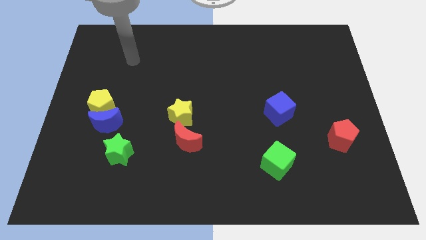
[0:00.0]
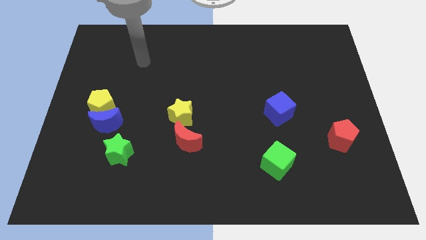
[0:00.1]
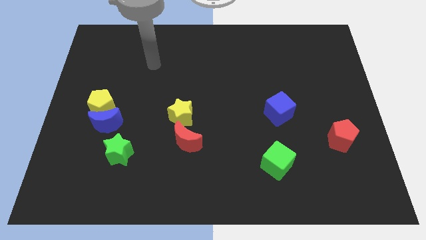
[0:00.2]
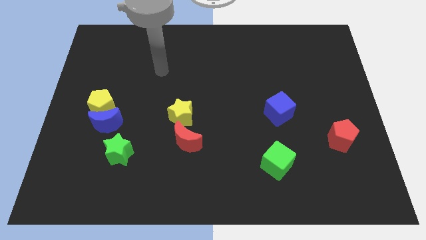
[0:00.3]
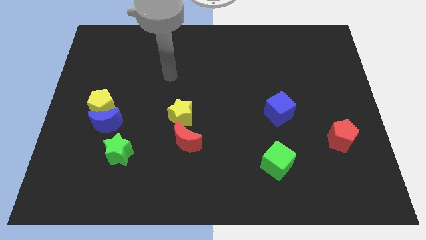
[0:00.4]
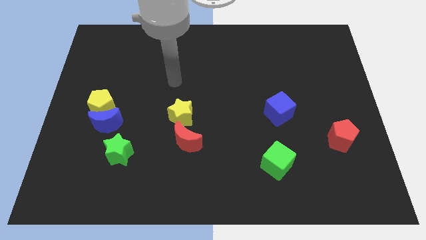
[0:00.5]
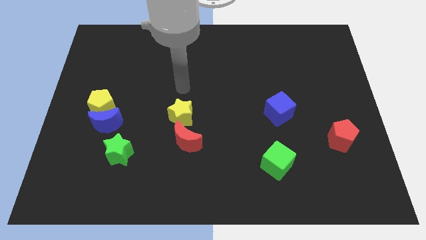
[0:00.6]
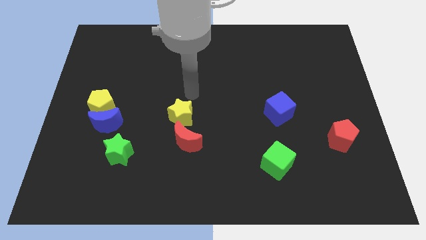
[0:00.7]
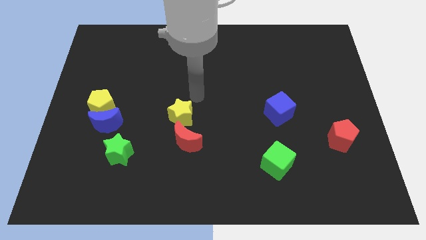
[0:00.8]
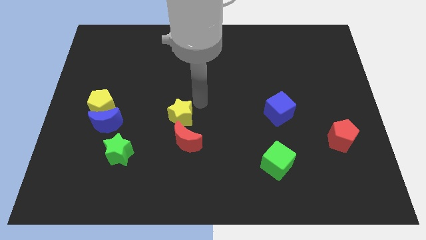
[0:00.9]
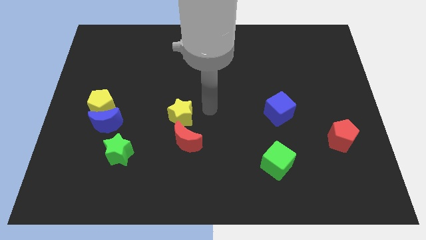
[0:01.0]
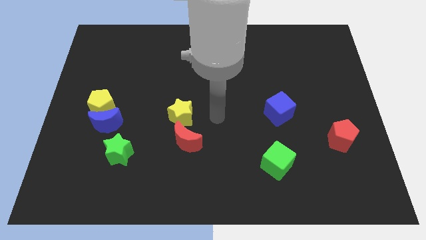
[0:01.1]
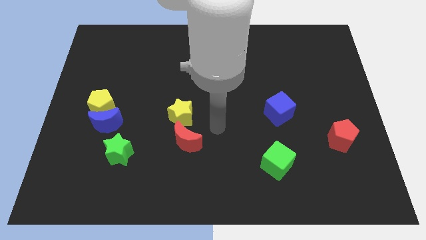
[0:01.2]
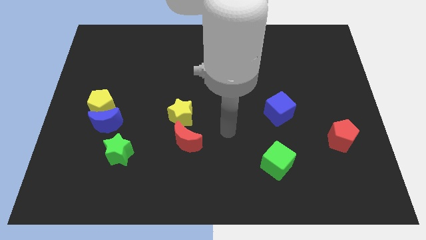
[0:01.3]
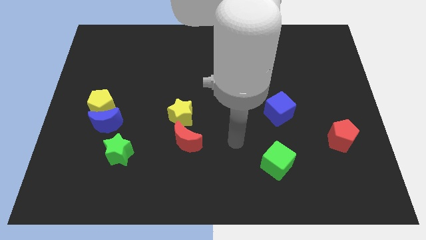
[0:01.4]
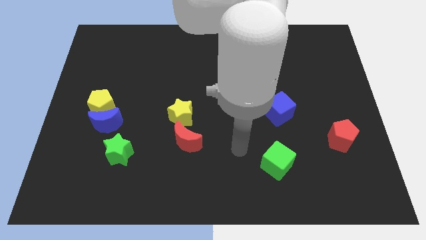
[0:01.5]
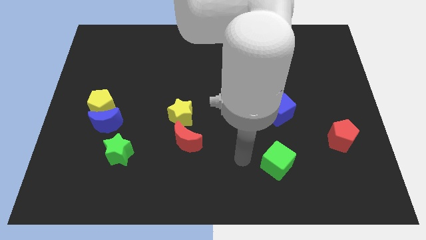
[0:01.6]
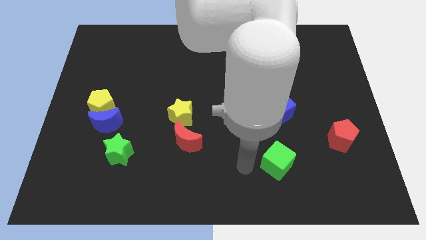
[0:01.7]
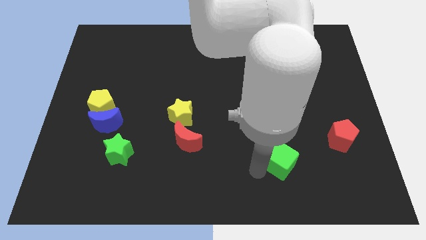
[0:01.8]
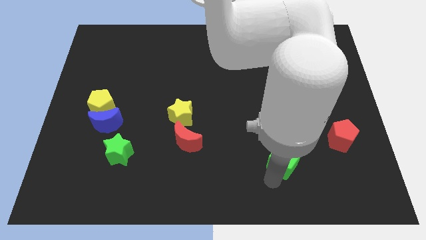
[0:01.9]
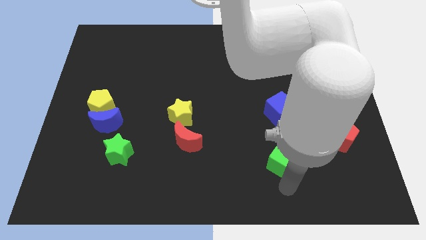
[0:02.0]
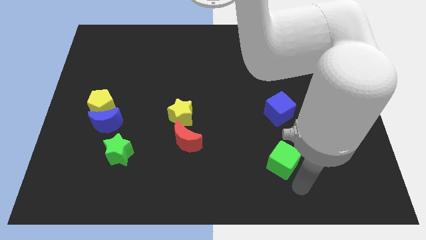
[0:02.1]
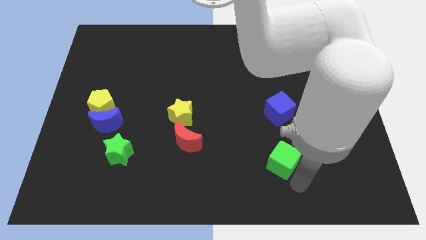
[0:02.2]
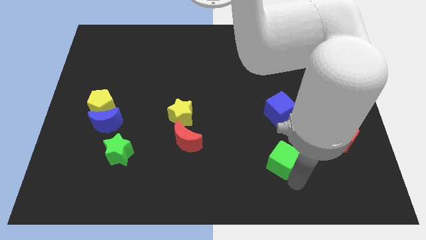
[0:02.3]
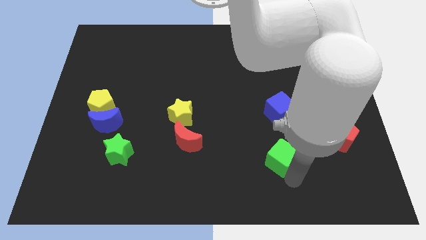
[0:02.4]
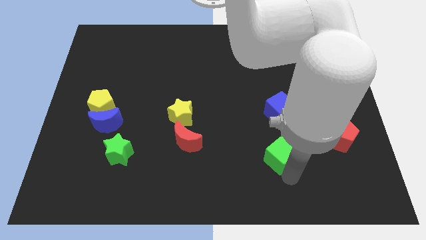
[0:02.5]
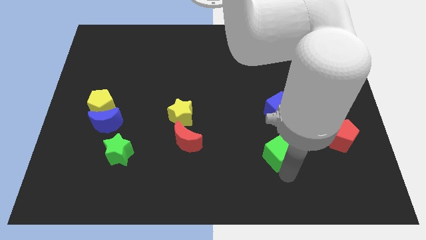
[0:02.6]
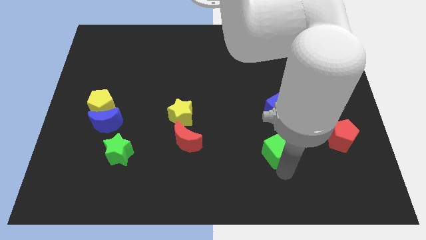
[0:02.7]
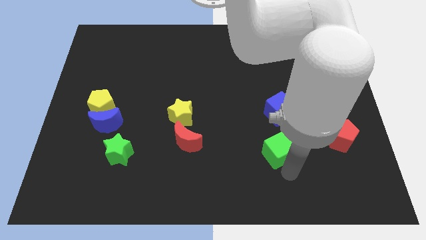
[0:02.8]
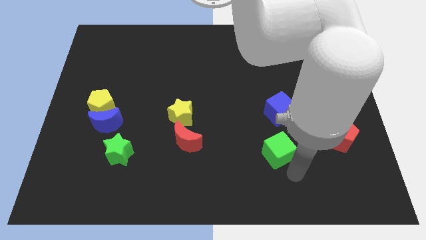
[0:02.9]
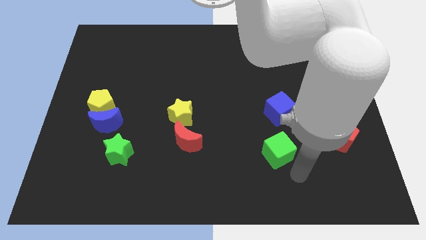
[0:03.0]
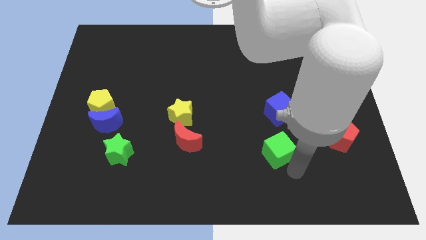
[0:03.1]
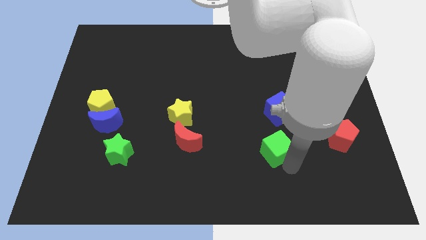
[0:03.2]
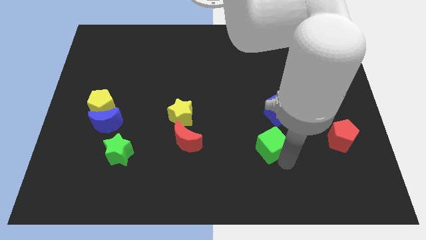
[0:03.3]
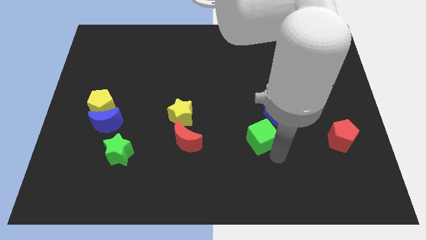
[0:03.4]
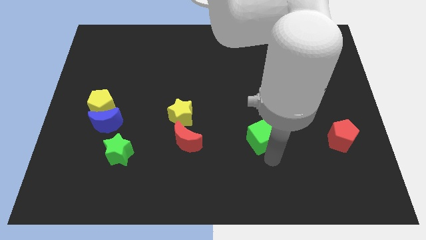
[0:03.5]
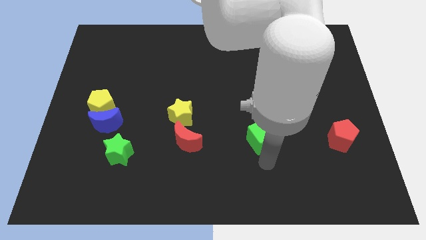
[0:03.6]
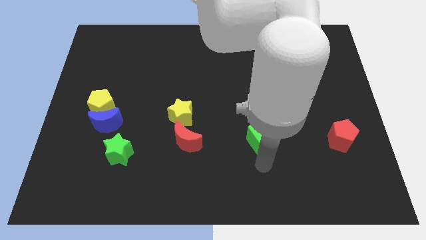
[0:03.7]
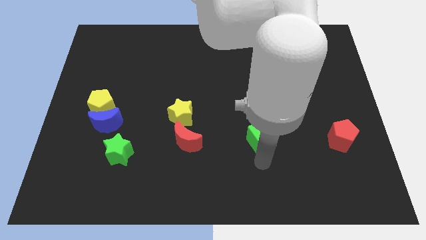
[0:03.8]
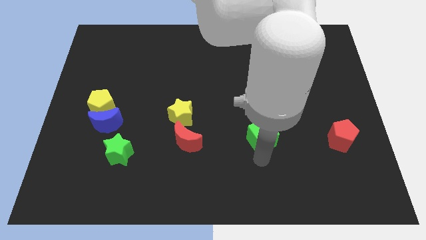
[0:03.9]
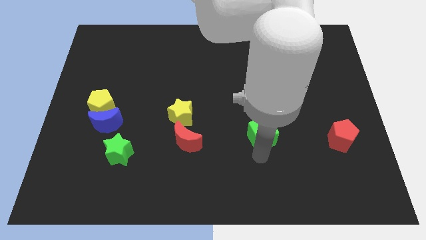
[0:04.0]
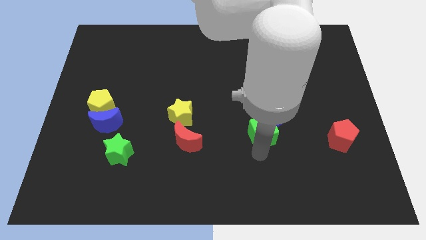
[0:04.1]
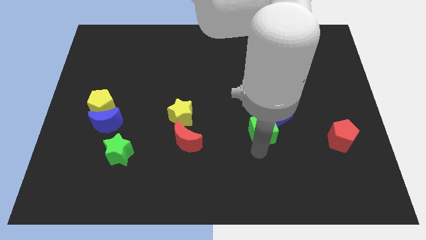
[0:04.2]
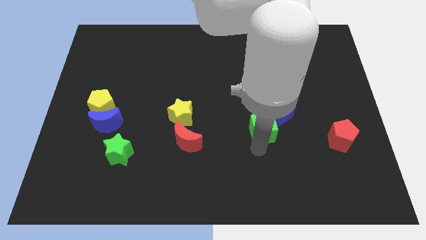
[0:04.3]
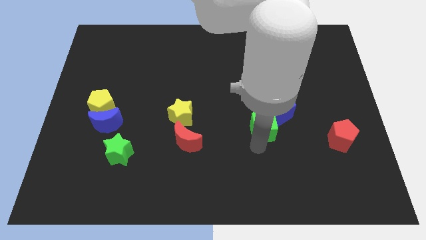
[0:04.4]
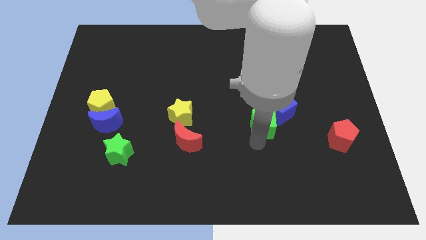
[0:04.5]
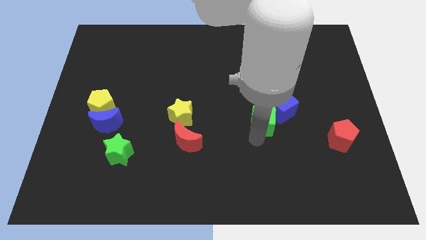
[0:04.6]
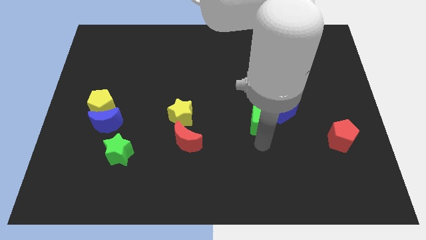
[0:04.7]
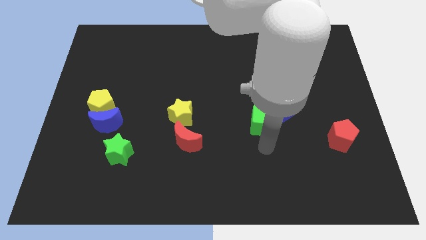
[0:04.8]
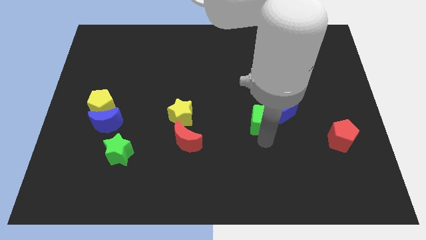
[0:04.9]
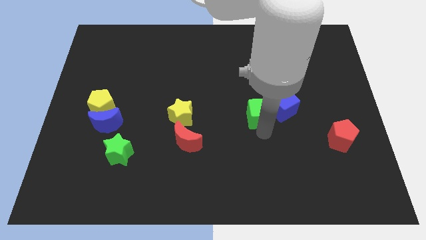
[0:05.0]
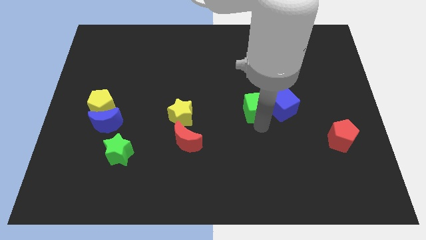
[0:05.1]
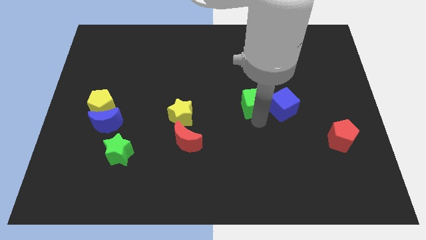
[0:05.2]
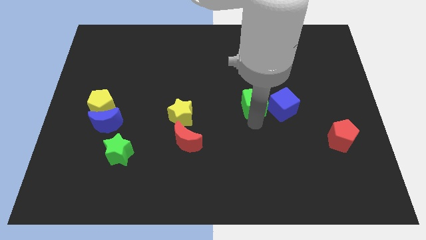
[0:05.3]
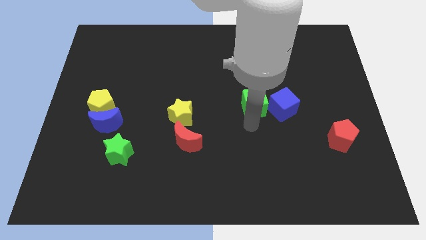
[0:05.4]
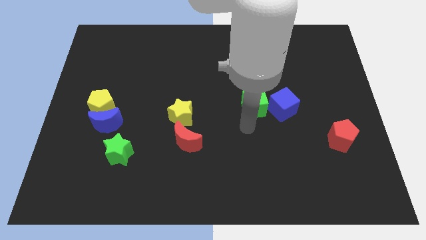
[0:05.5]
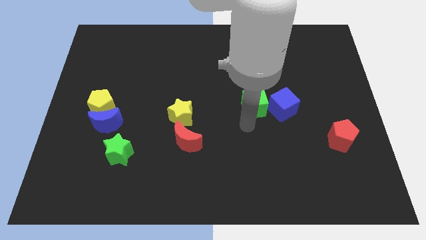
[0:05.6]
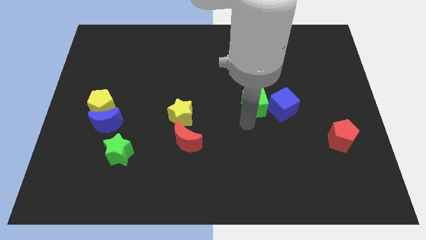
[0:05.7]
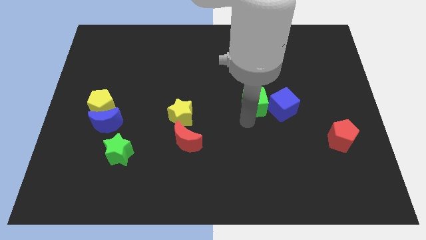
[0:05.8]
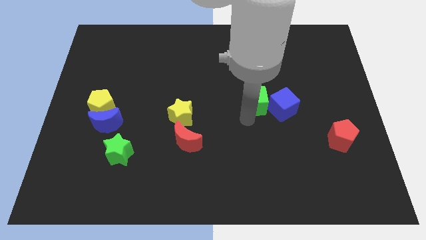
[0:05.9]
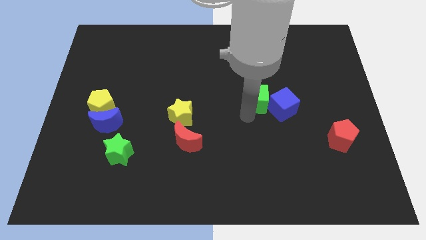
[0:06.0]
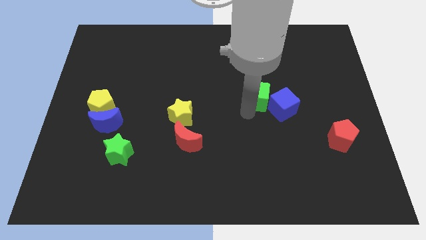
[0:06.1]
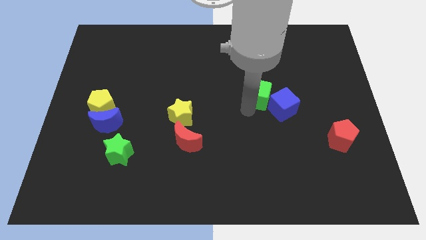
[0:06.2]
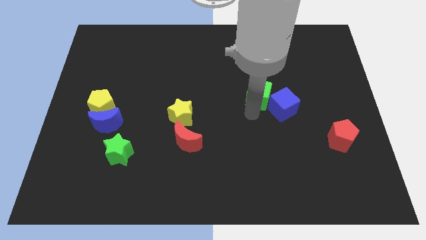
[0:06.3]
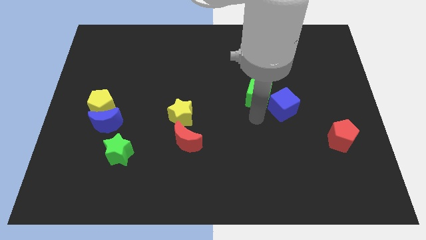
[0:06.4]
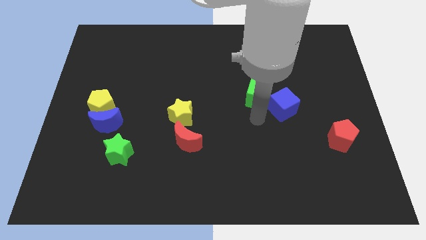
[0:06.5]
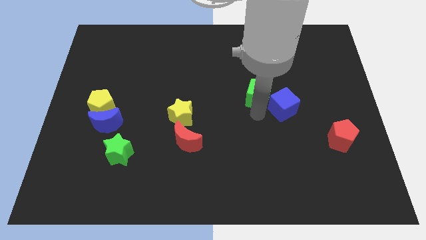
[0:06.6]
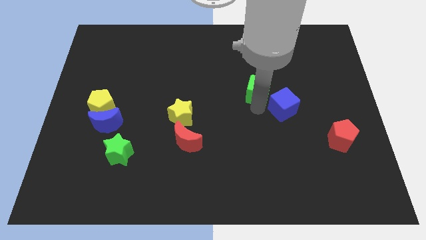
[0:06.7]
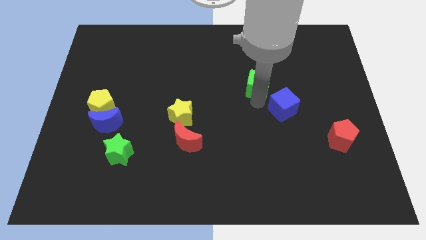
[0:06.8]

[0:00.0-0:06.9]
push the green cube up

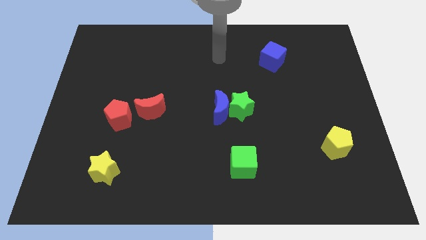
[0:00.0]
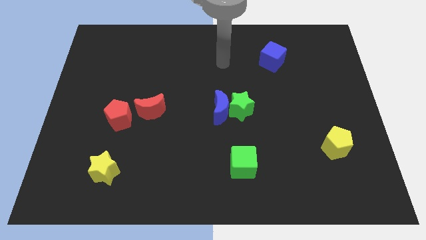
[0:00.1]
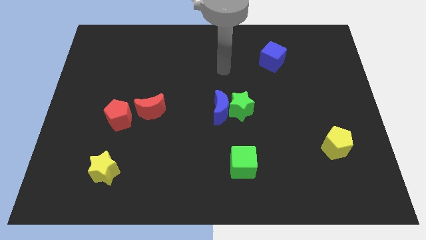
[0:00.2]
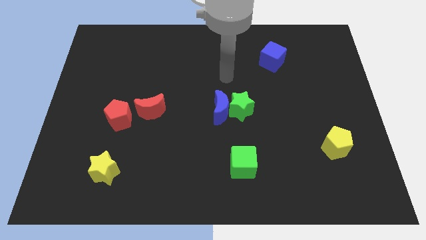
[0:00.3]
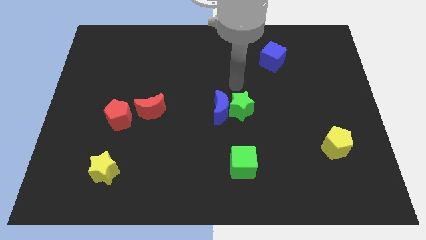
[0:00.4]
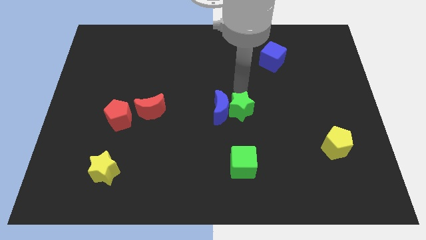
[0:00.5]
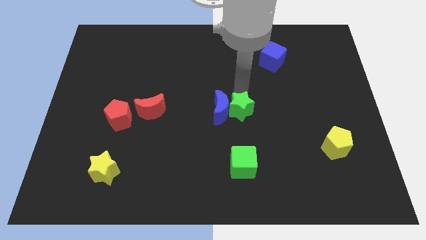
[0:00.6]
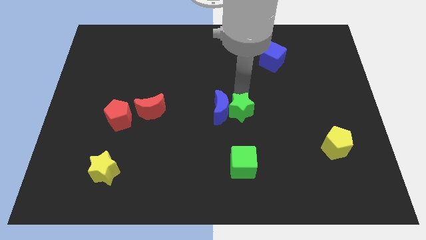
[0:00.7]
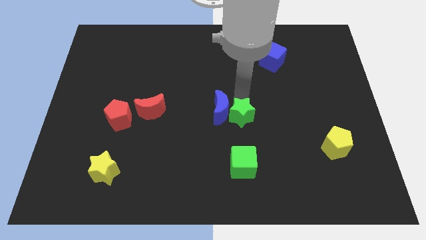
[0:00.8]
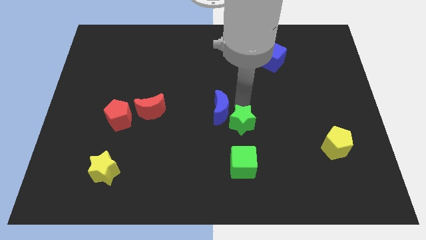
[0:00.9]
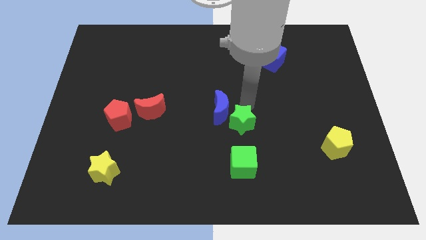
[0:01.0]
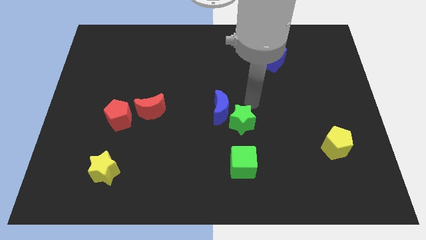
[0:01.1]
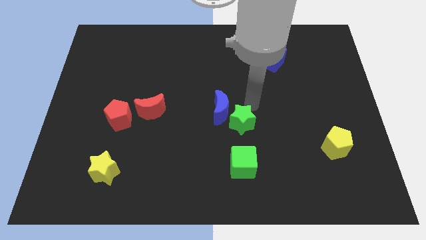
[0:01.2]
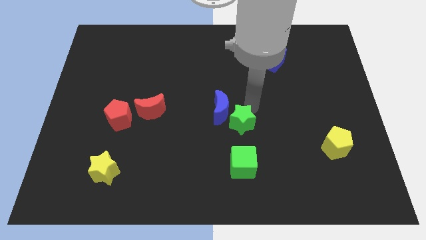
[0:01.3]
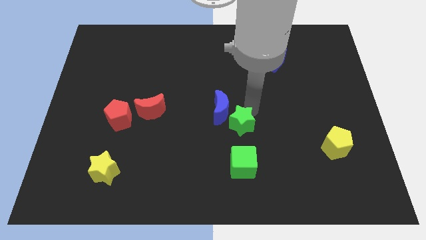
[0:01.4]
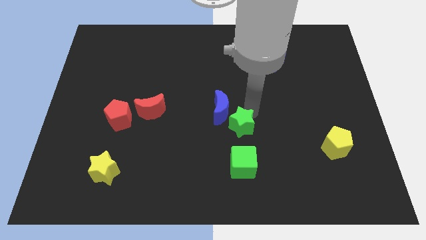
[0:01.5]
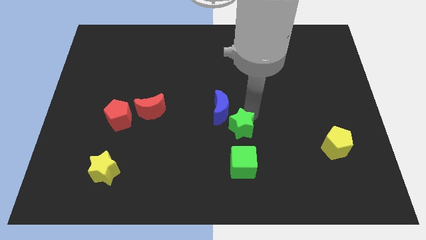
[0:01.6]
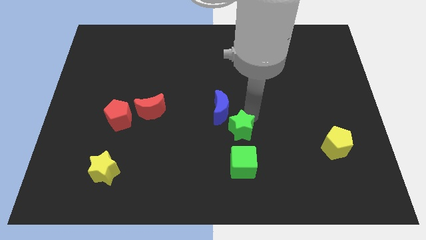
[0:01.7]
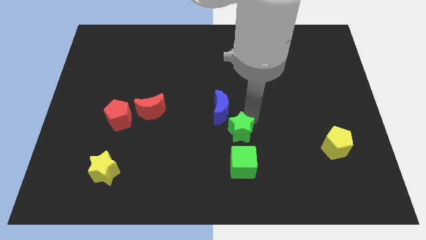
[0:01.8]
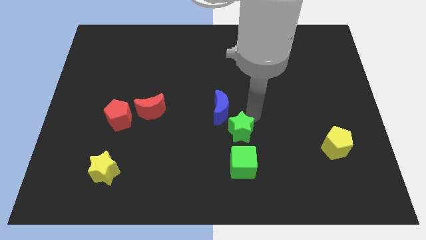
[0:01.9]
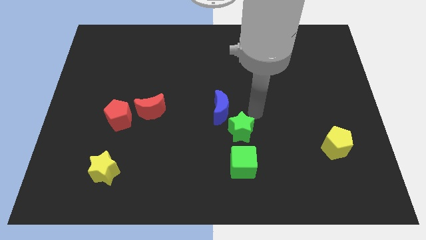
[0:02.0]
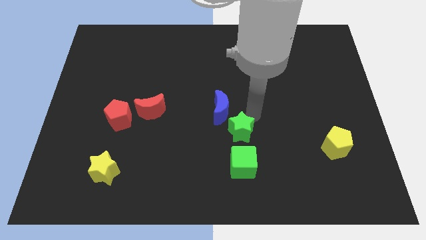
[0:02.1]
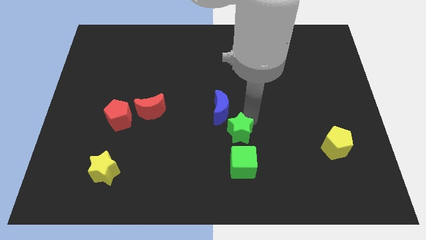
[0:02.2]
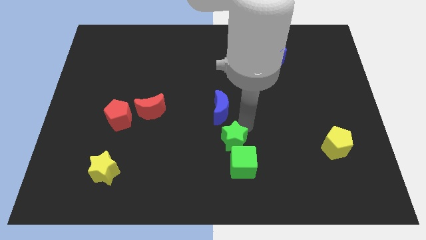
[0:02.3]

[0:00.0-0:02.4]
move the green star a little bit diagonally down and to the left
